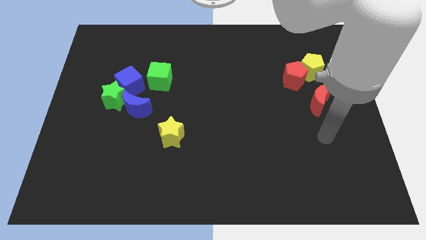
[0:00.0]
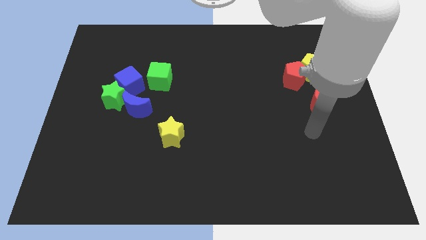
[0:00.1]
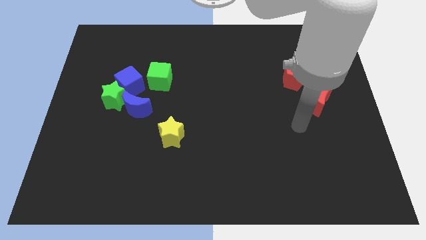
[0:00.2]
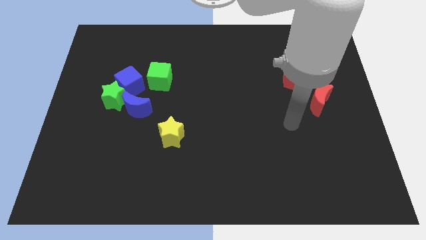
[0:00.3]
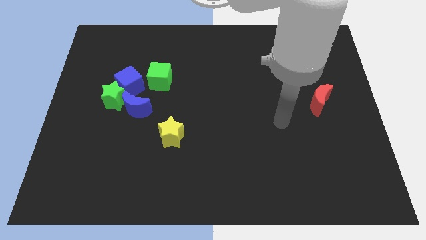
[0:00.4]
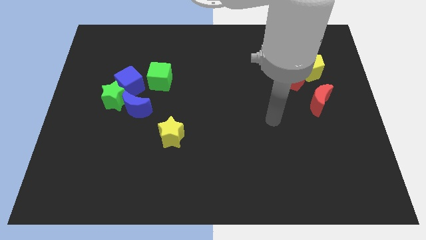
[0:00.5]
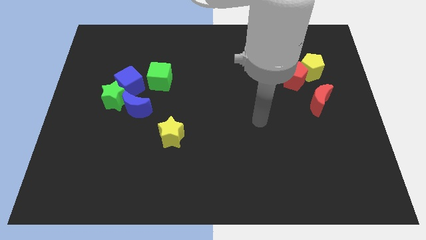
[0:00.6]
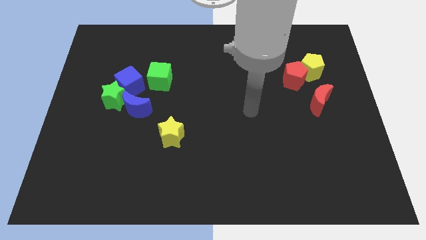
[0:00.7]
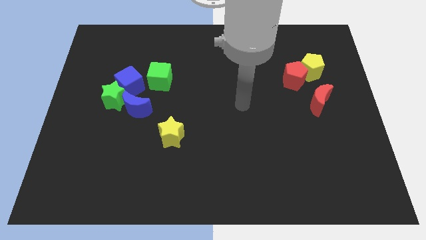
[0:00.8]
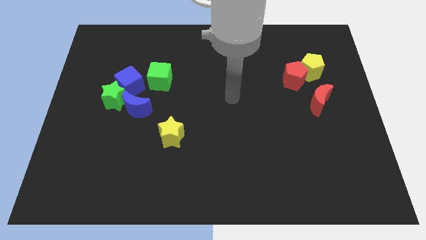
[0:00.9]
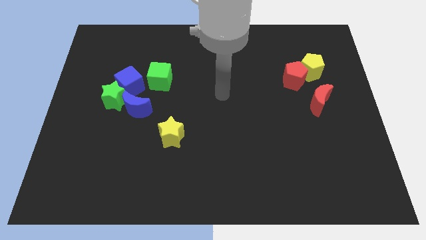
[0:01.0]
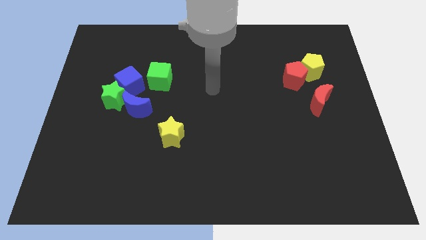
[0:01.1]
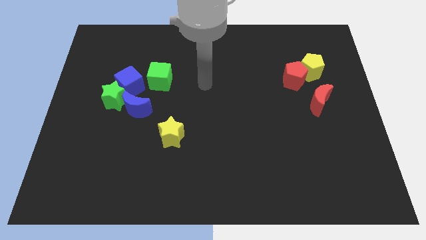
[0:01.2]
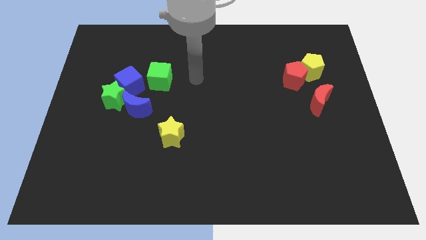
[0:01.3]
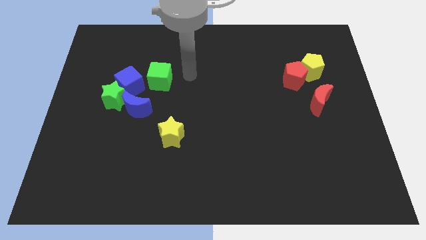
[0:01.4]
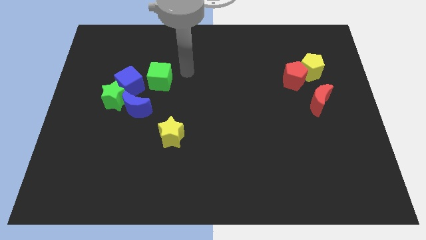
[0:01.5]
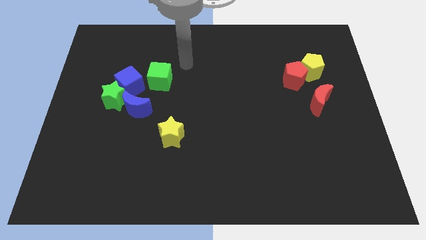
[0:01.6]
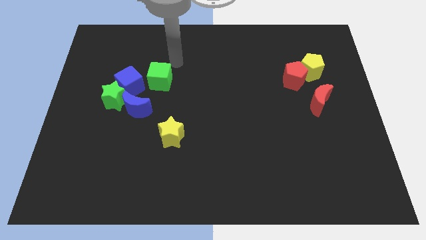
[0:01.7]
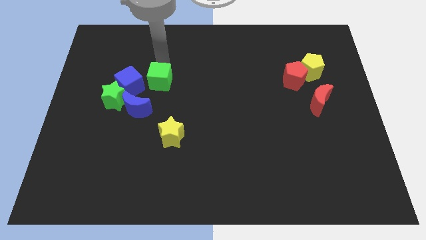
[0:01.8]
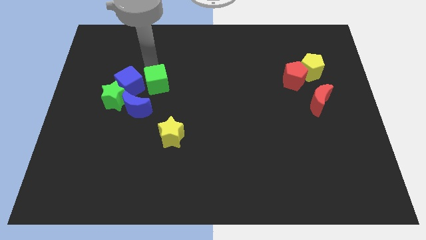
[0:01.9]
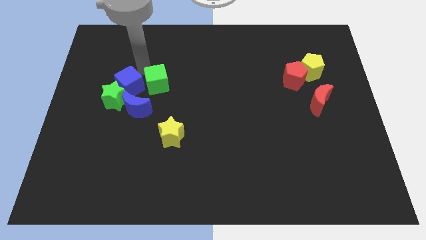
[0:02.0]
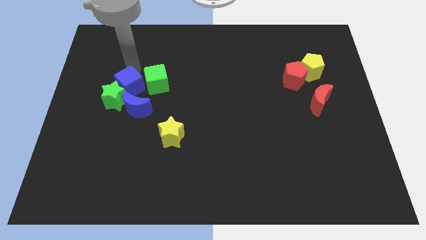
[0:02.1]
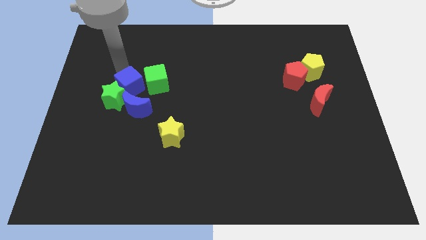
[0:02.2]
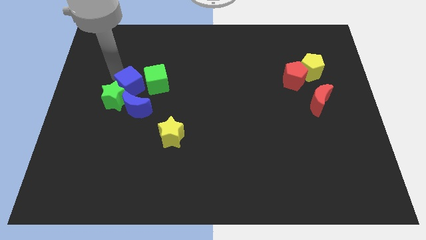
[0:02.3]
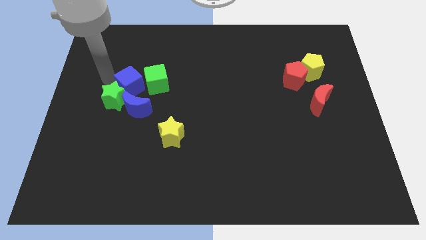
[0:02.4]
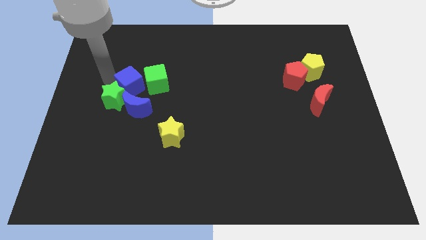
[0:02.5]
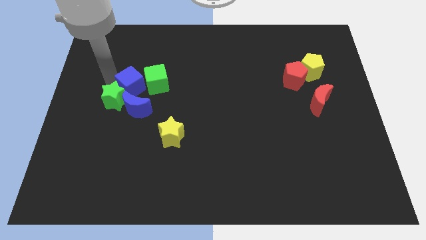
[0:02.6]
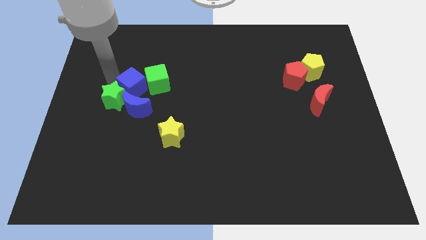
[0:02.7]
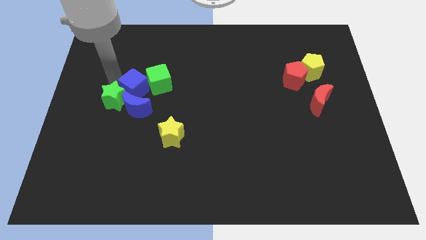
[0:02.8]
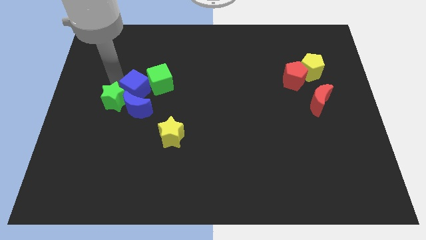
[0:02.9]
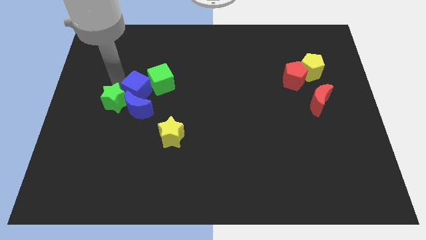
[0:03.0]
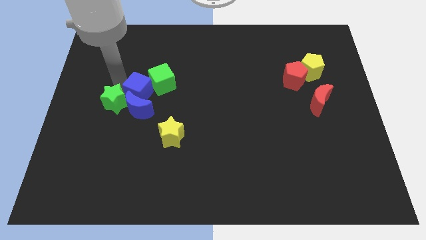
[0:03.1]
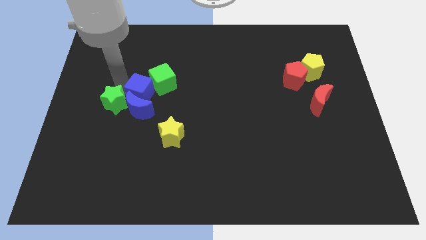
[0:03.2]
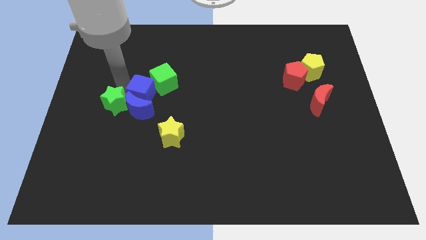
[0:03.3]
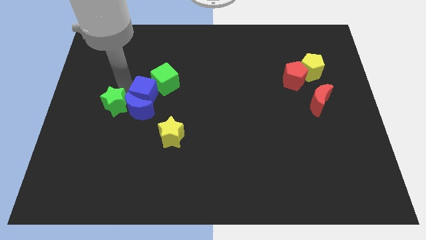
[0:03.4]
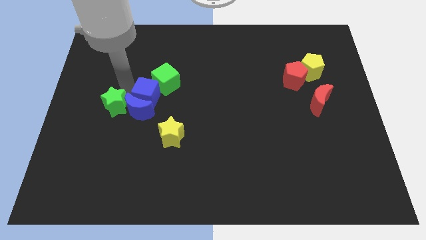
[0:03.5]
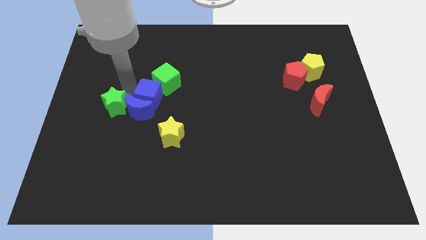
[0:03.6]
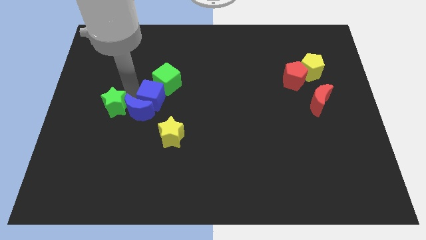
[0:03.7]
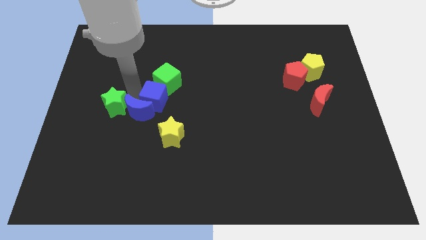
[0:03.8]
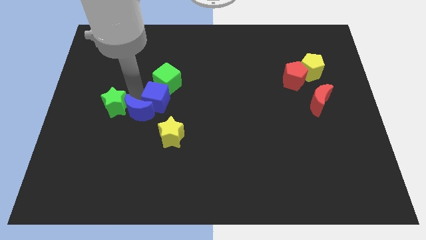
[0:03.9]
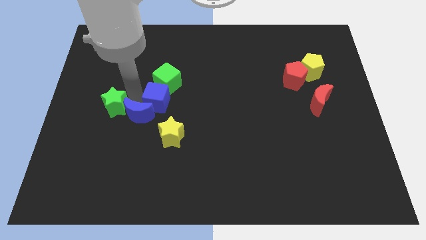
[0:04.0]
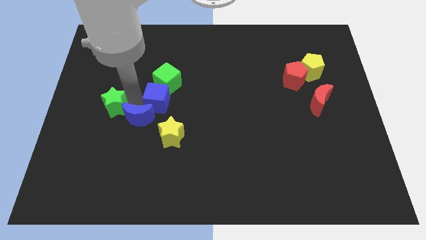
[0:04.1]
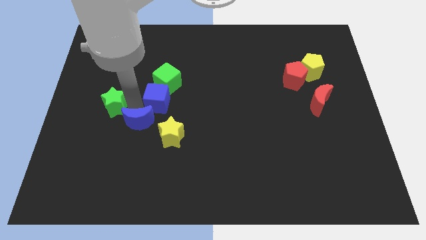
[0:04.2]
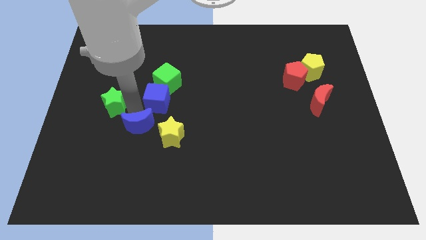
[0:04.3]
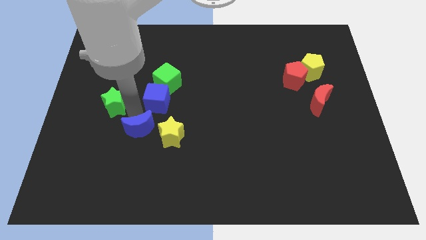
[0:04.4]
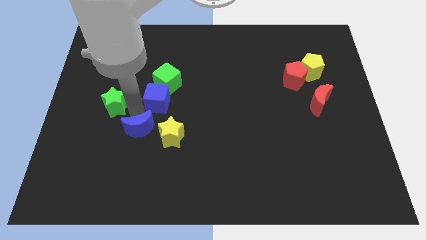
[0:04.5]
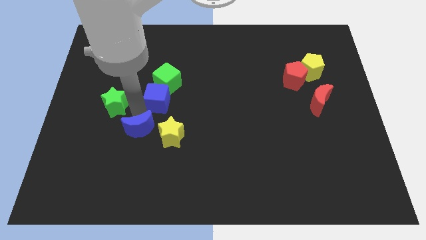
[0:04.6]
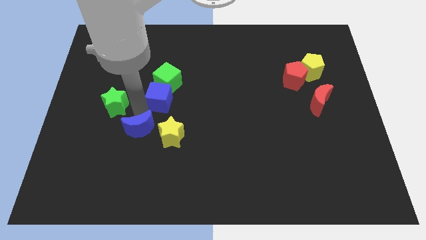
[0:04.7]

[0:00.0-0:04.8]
slightly slide the blue cube right

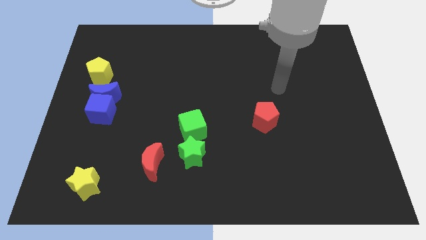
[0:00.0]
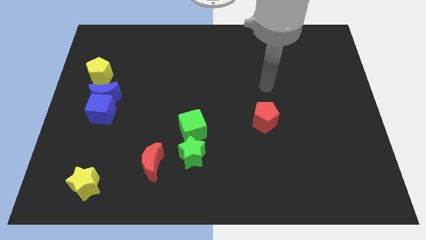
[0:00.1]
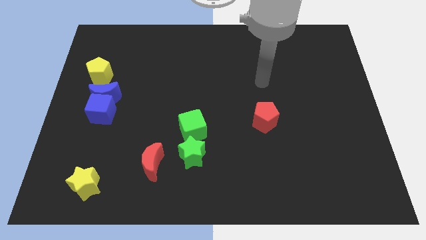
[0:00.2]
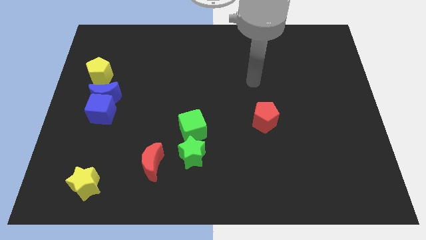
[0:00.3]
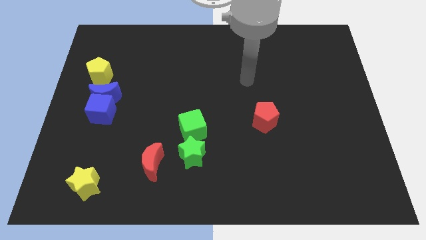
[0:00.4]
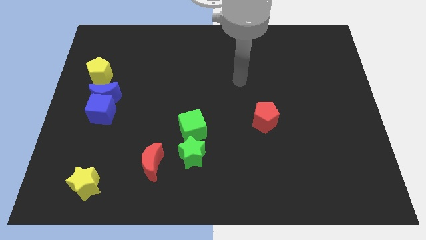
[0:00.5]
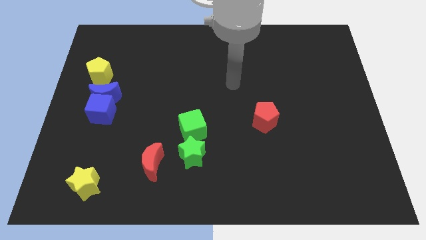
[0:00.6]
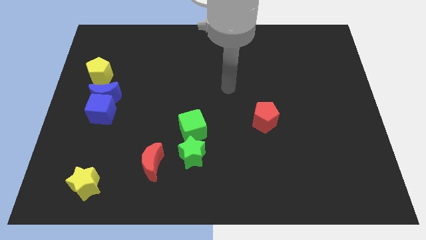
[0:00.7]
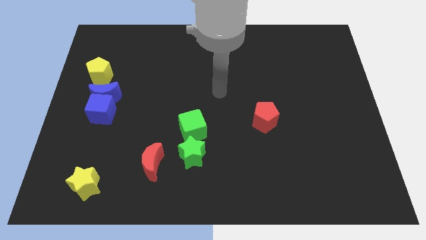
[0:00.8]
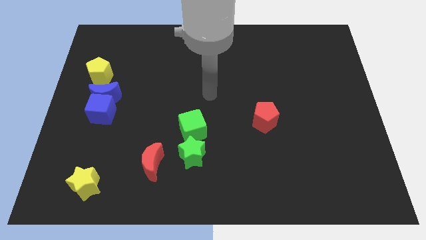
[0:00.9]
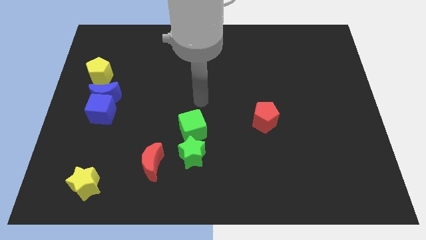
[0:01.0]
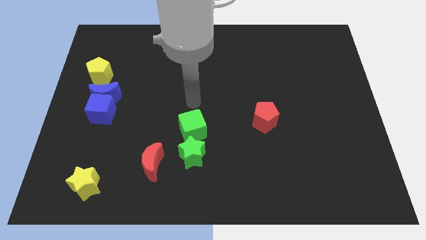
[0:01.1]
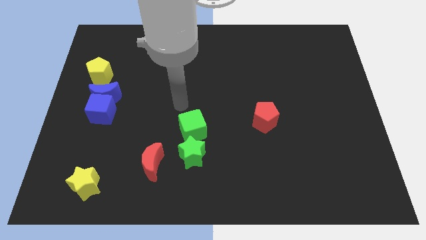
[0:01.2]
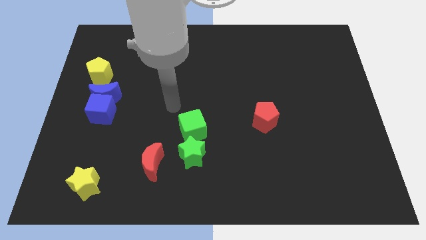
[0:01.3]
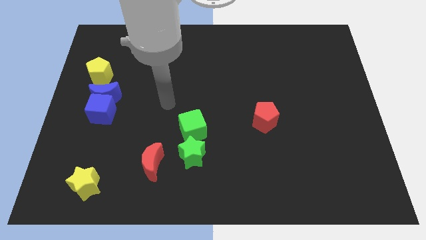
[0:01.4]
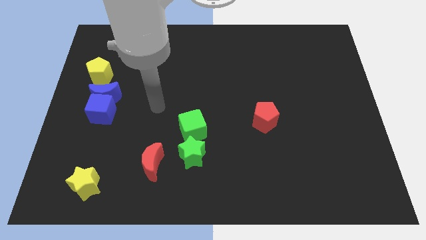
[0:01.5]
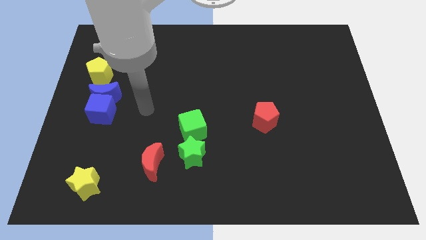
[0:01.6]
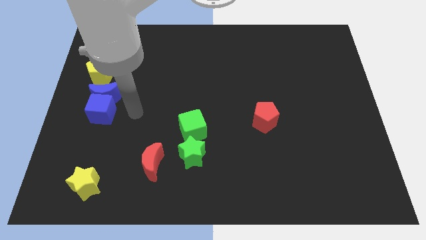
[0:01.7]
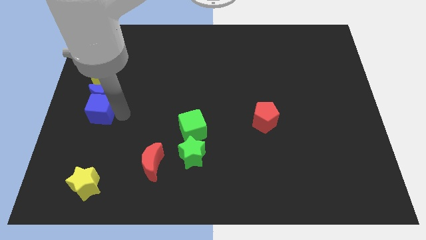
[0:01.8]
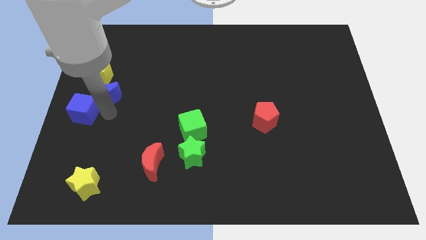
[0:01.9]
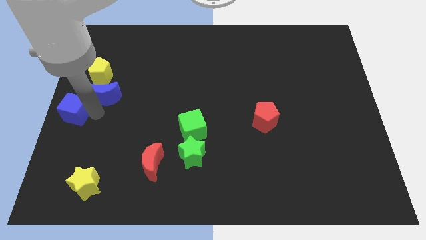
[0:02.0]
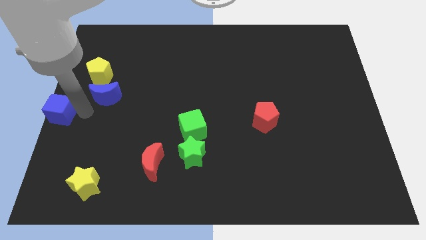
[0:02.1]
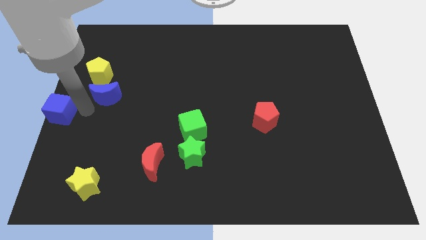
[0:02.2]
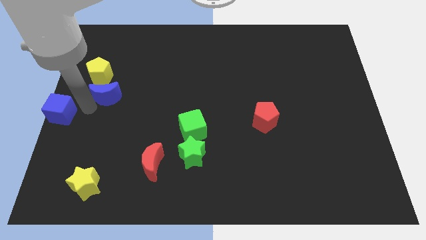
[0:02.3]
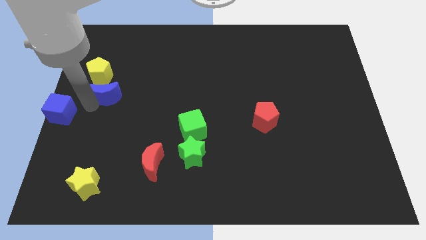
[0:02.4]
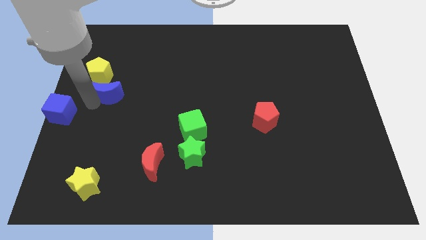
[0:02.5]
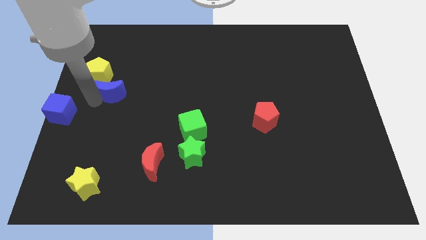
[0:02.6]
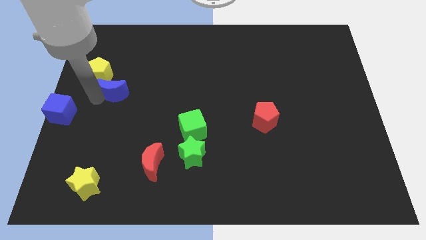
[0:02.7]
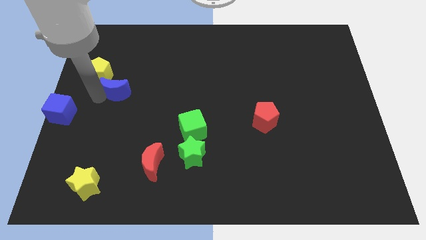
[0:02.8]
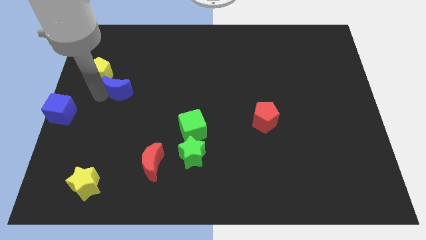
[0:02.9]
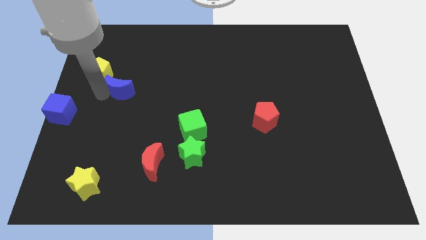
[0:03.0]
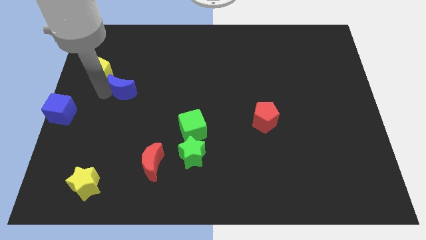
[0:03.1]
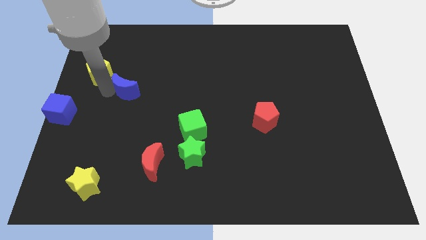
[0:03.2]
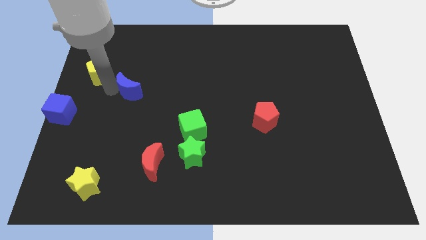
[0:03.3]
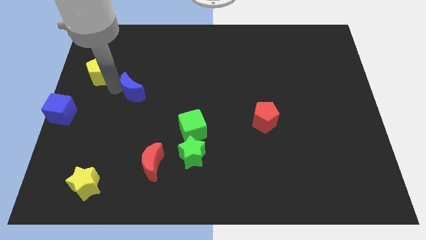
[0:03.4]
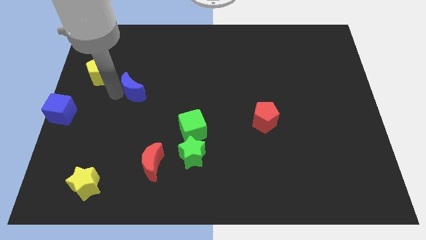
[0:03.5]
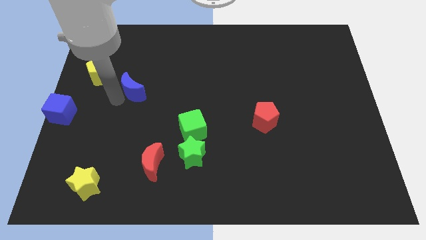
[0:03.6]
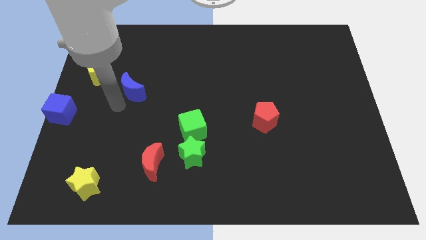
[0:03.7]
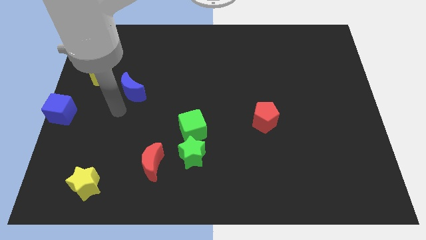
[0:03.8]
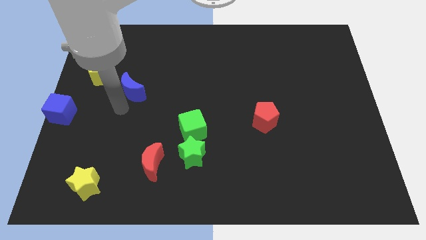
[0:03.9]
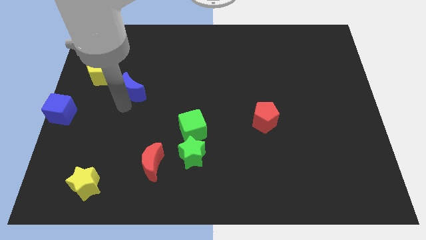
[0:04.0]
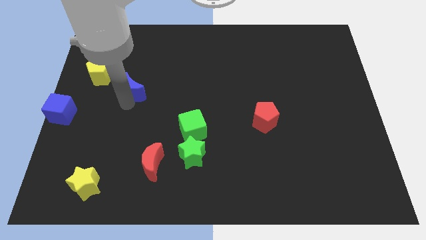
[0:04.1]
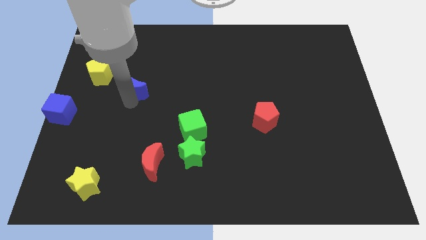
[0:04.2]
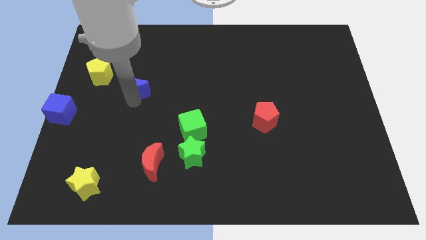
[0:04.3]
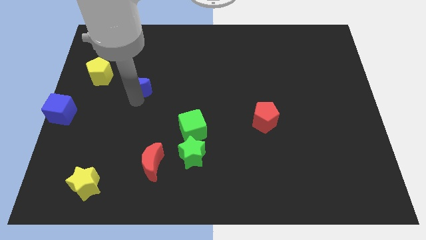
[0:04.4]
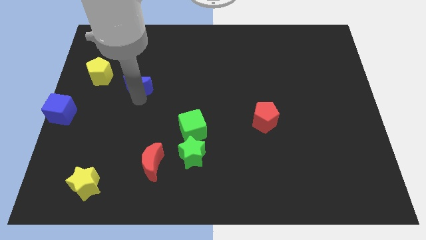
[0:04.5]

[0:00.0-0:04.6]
slightly push the blue moon upwards and right diagonally
